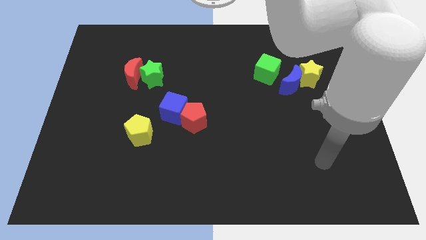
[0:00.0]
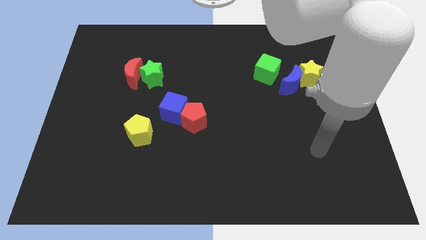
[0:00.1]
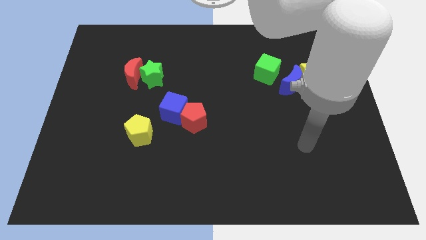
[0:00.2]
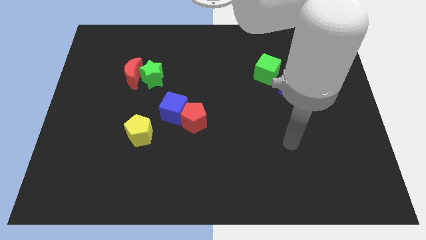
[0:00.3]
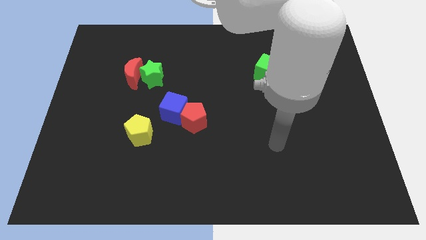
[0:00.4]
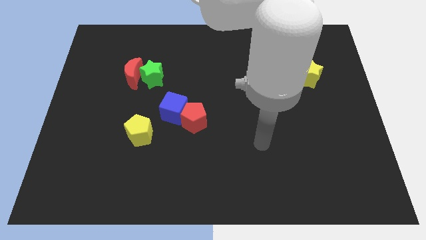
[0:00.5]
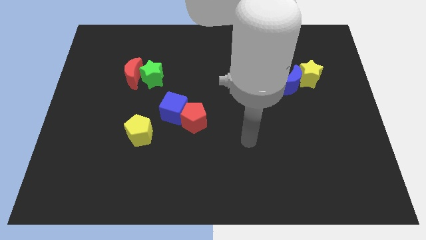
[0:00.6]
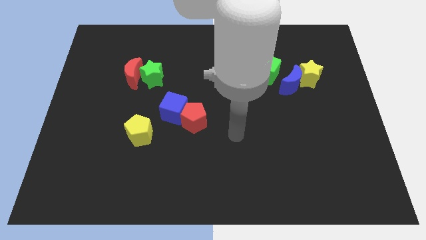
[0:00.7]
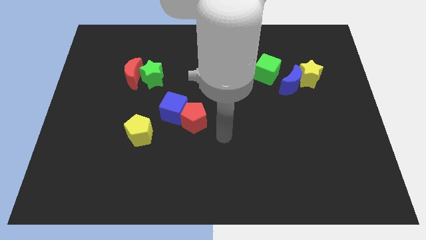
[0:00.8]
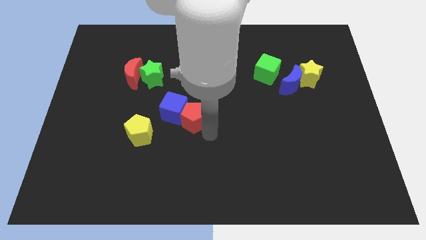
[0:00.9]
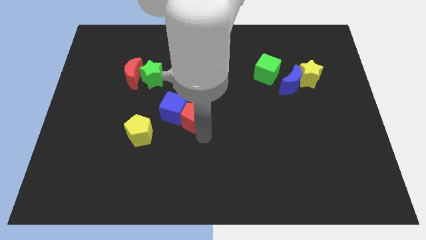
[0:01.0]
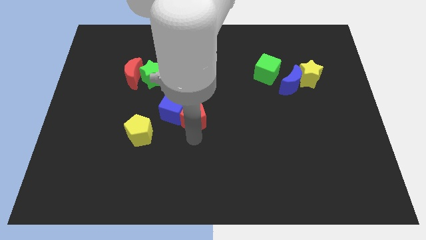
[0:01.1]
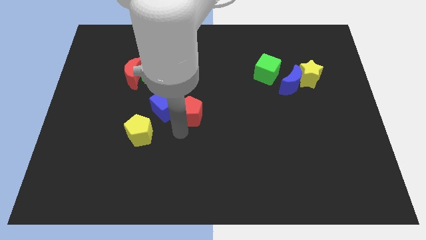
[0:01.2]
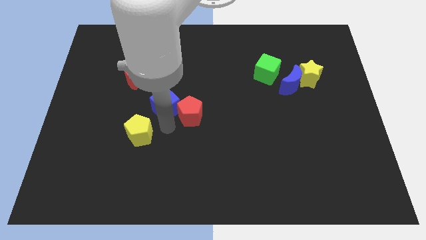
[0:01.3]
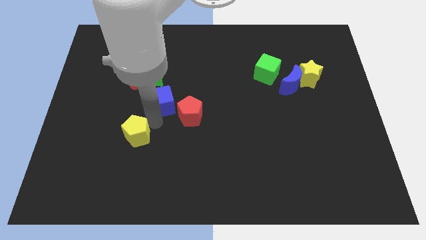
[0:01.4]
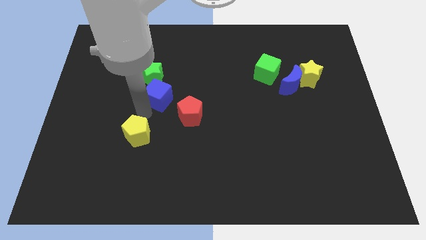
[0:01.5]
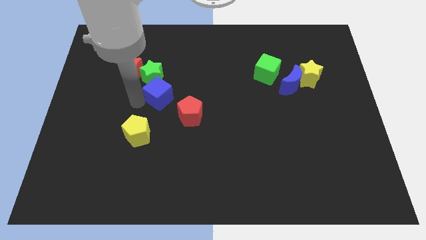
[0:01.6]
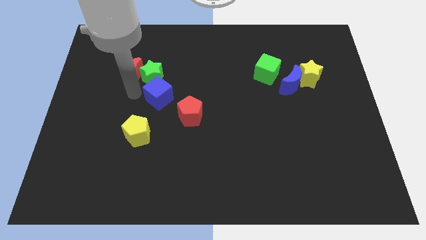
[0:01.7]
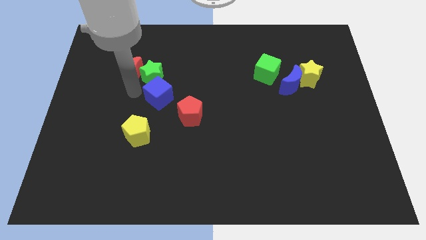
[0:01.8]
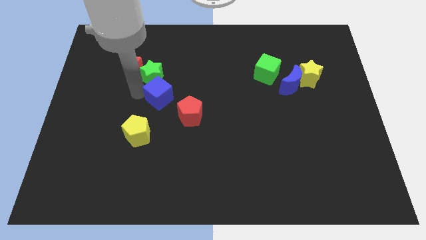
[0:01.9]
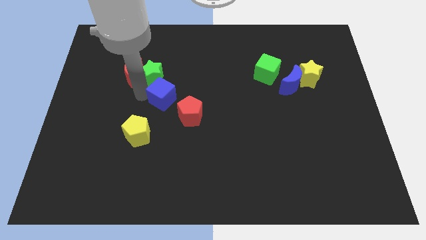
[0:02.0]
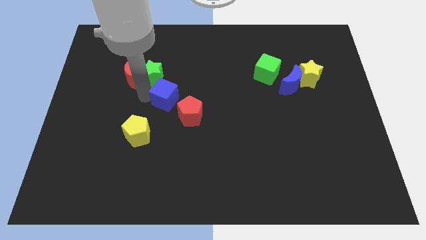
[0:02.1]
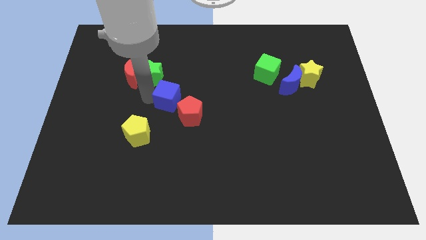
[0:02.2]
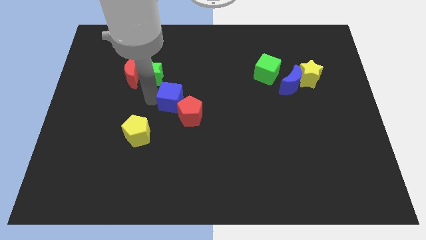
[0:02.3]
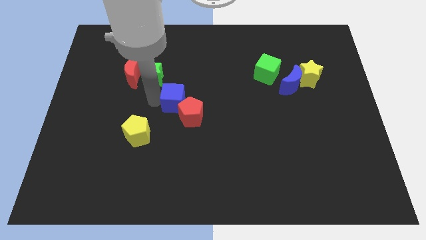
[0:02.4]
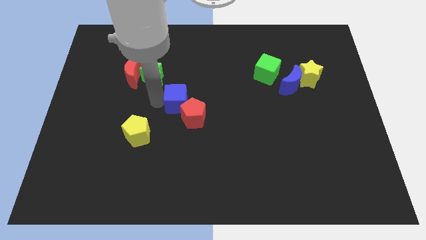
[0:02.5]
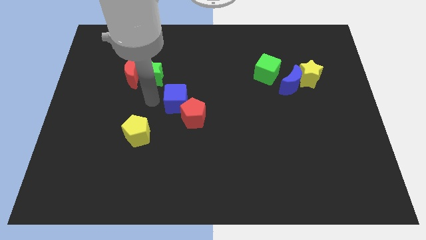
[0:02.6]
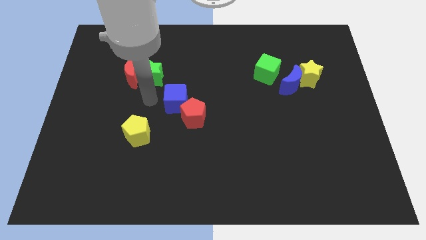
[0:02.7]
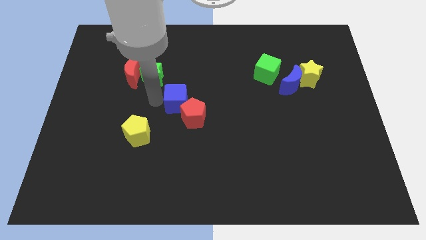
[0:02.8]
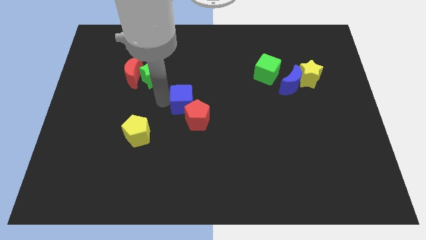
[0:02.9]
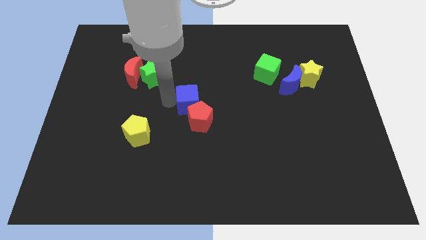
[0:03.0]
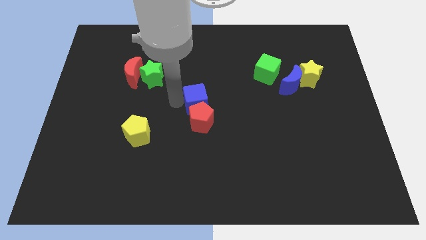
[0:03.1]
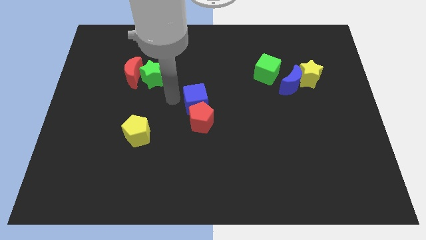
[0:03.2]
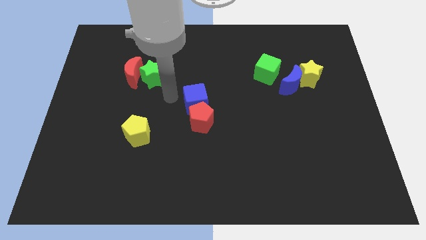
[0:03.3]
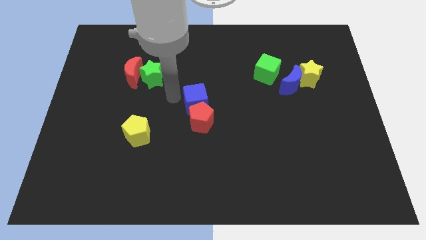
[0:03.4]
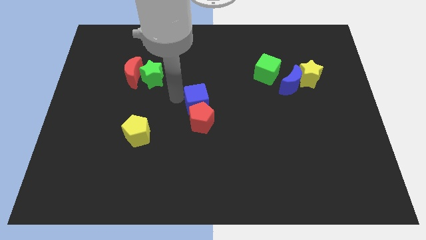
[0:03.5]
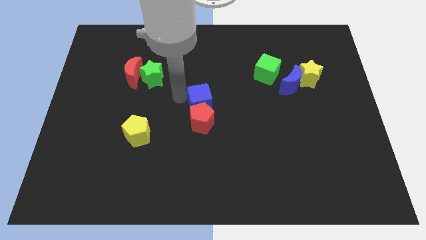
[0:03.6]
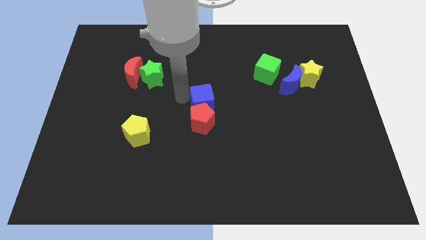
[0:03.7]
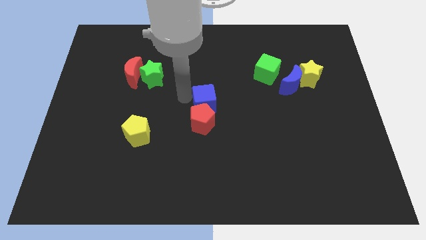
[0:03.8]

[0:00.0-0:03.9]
slide the blue cube to the right a bit

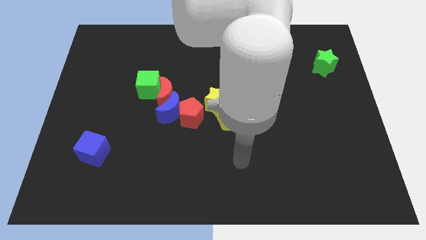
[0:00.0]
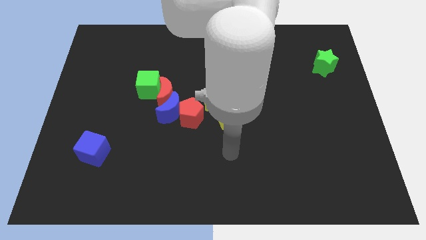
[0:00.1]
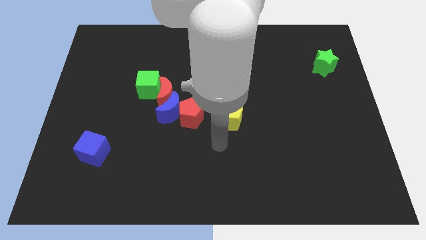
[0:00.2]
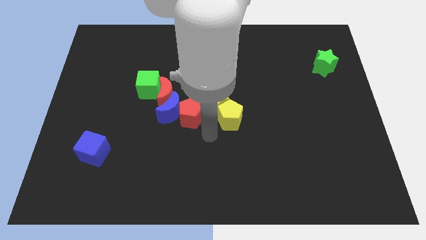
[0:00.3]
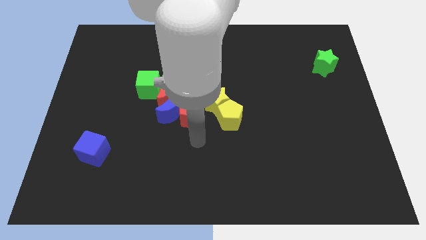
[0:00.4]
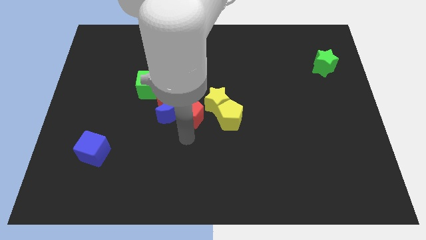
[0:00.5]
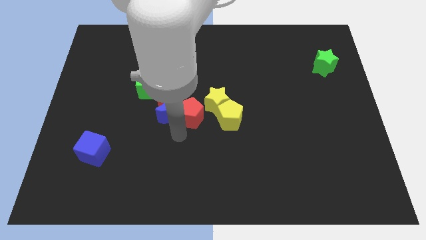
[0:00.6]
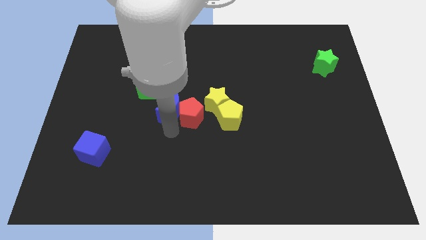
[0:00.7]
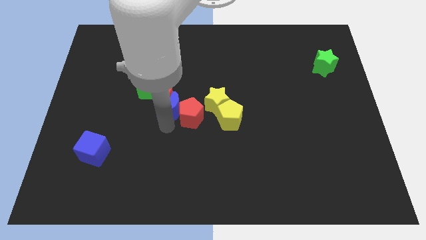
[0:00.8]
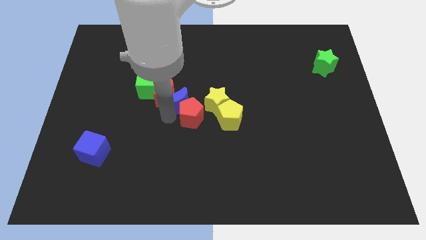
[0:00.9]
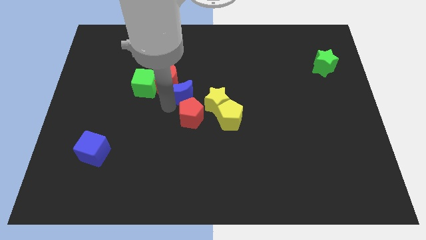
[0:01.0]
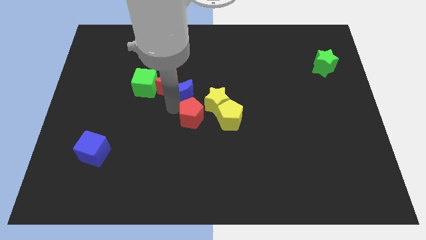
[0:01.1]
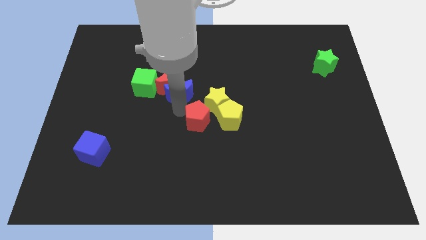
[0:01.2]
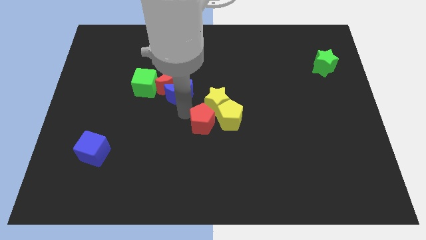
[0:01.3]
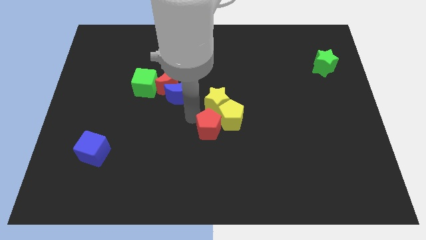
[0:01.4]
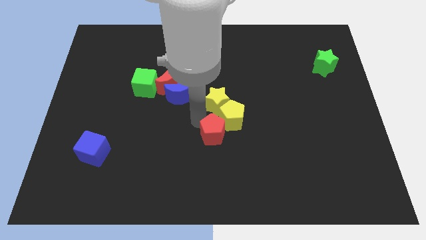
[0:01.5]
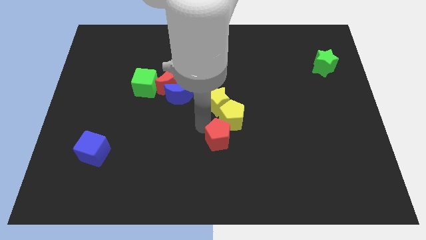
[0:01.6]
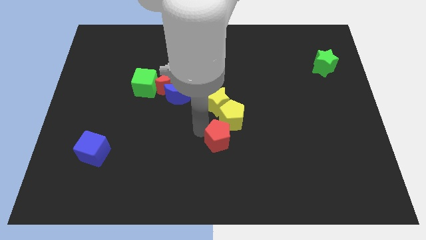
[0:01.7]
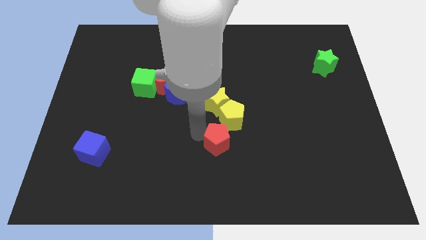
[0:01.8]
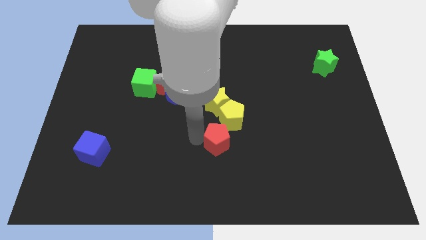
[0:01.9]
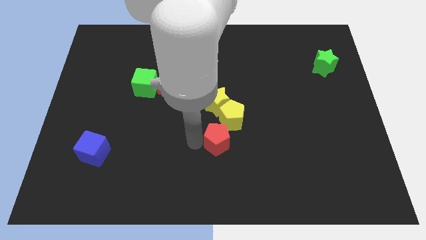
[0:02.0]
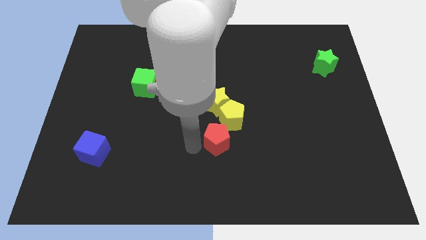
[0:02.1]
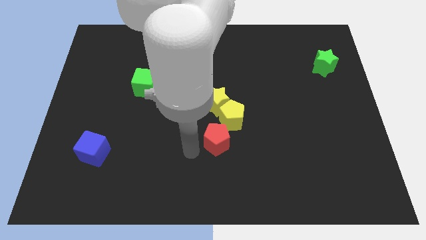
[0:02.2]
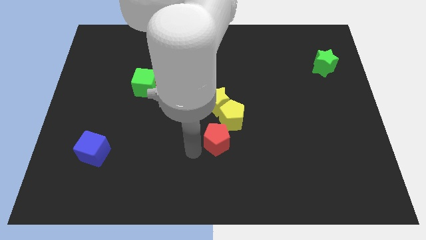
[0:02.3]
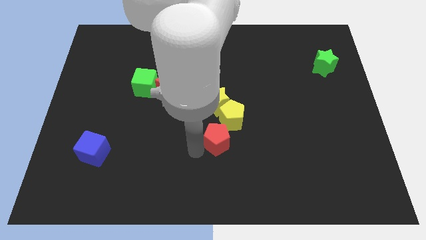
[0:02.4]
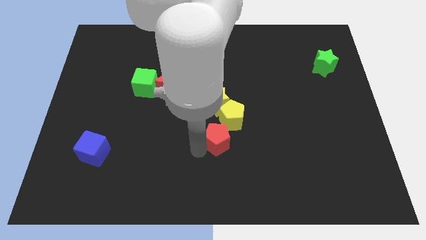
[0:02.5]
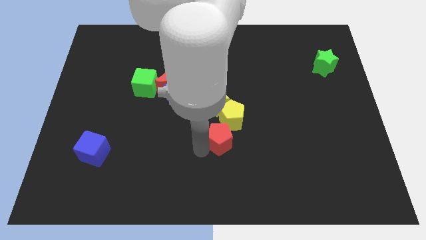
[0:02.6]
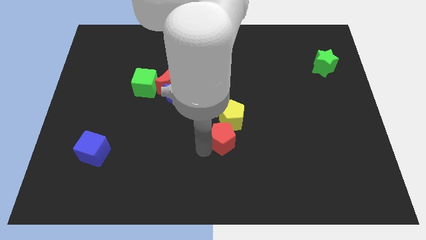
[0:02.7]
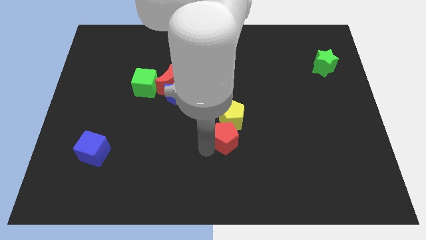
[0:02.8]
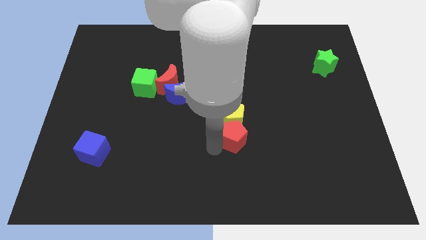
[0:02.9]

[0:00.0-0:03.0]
slide the red pentagon slightly right

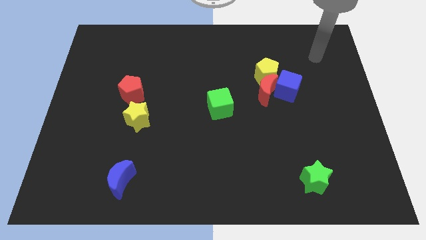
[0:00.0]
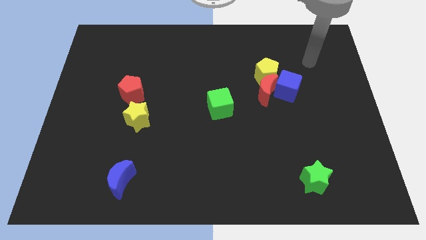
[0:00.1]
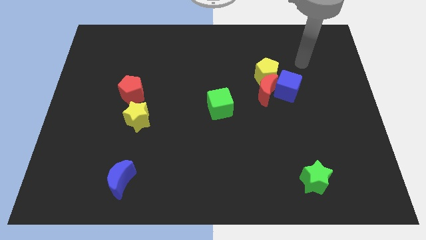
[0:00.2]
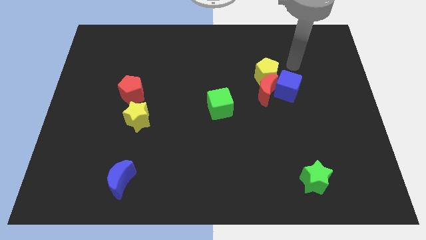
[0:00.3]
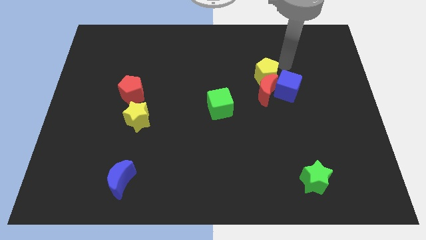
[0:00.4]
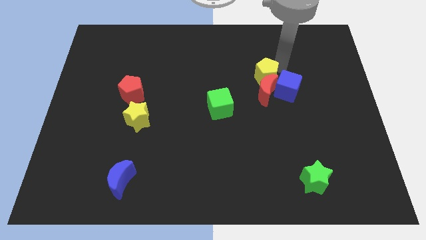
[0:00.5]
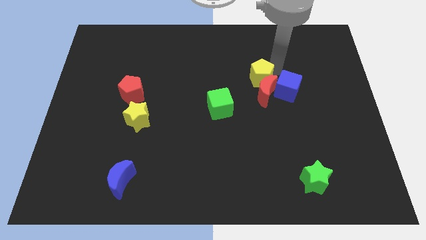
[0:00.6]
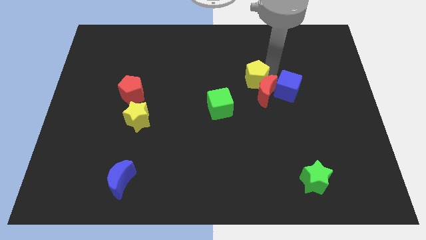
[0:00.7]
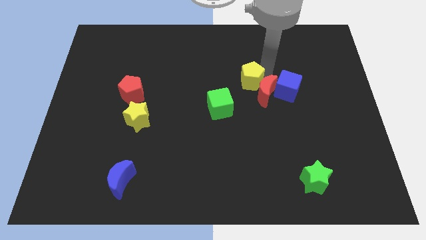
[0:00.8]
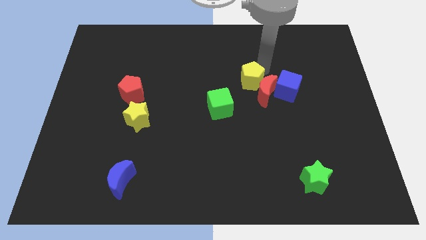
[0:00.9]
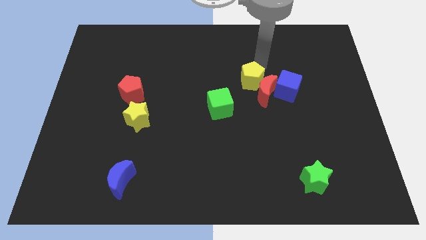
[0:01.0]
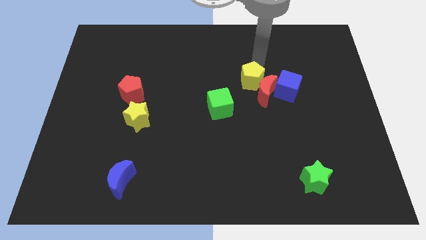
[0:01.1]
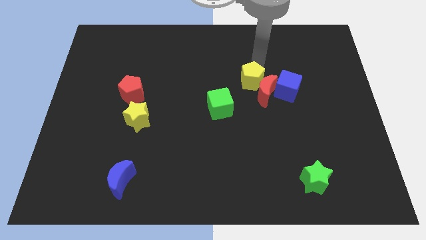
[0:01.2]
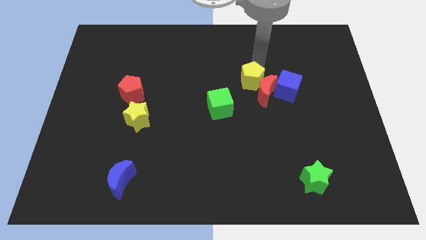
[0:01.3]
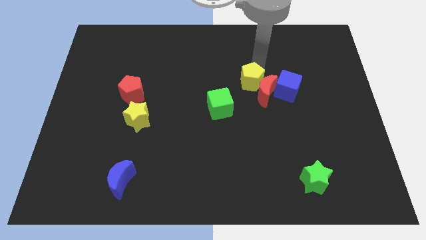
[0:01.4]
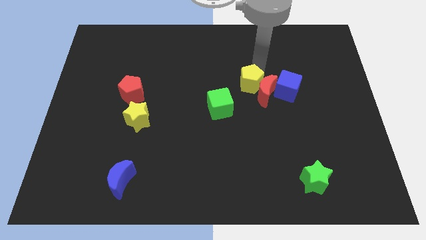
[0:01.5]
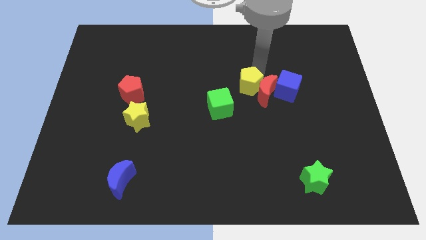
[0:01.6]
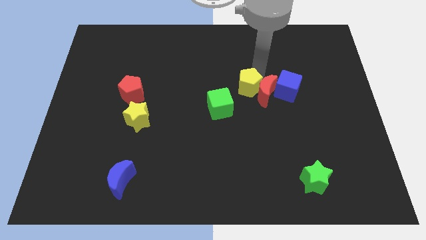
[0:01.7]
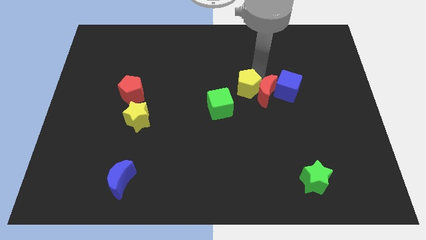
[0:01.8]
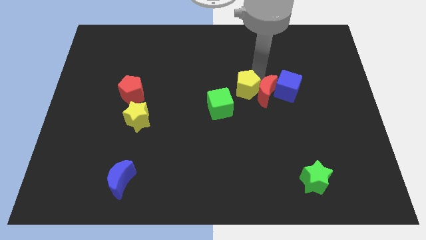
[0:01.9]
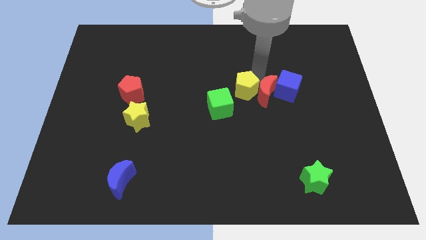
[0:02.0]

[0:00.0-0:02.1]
push the yellow pentagon downwards and to the left diagonally a bit
